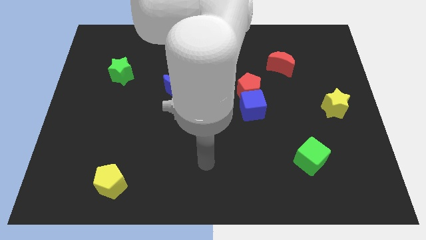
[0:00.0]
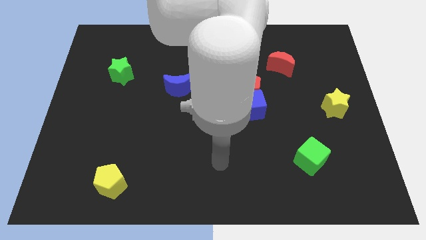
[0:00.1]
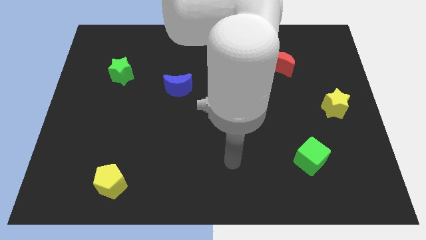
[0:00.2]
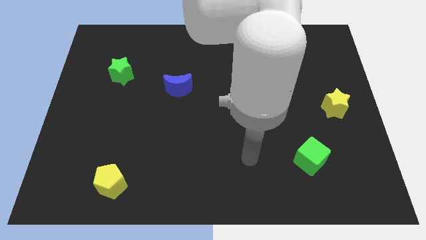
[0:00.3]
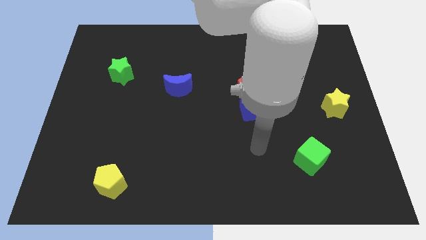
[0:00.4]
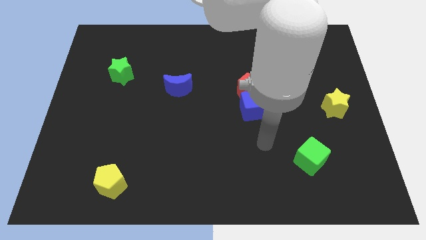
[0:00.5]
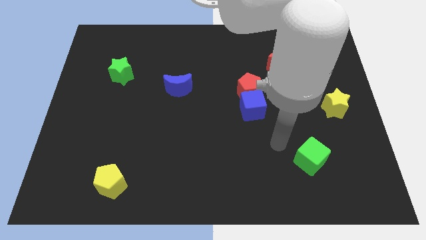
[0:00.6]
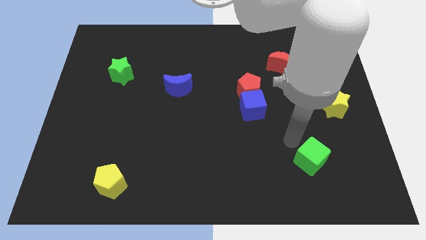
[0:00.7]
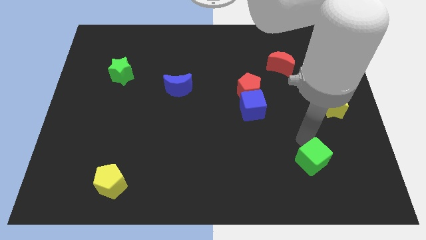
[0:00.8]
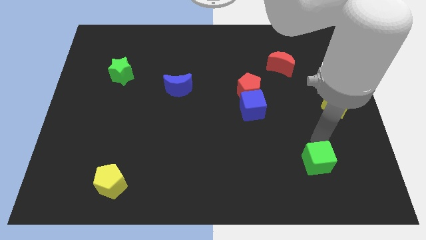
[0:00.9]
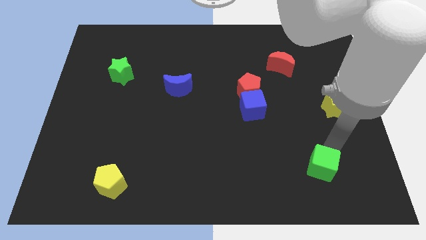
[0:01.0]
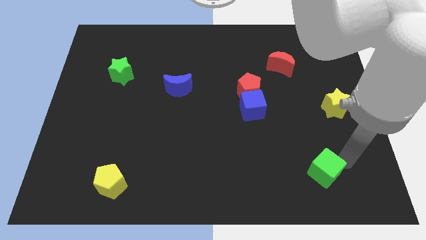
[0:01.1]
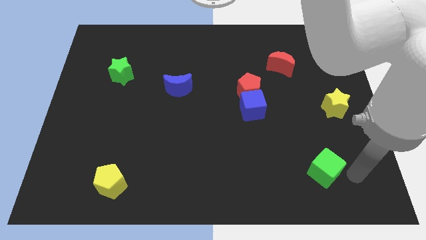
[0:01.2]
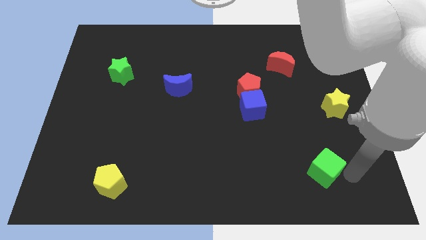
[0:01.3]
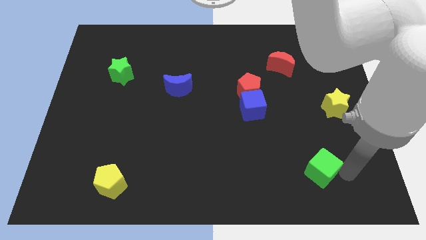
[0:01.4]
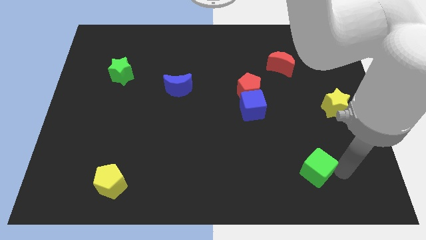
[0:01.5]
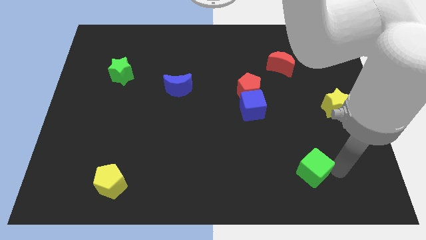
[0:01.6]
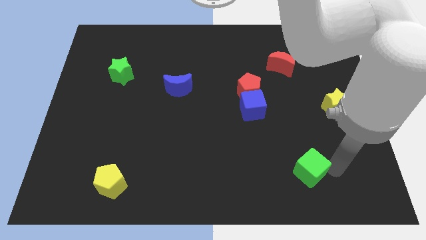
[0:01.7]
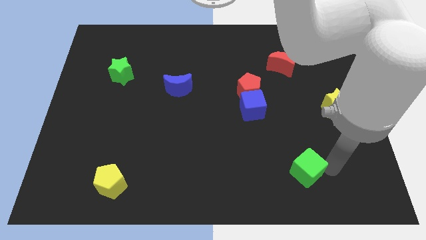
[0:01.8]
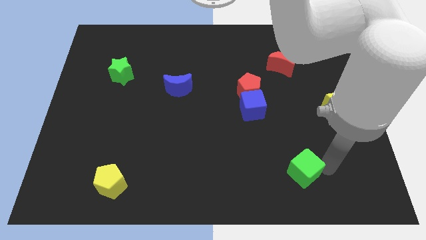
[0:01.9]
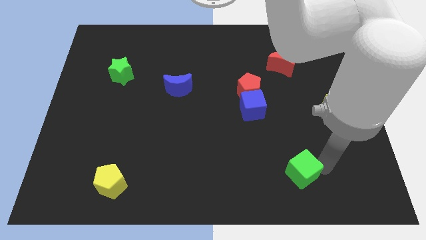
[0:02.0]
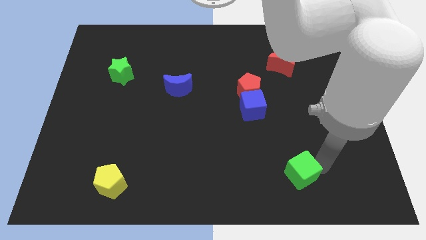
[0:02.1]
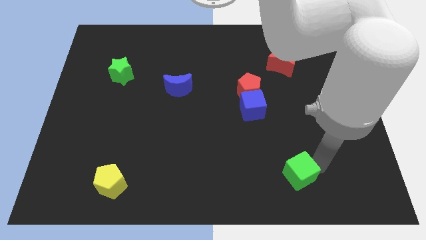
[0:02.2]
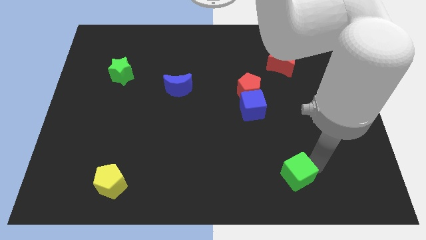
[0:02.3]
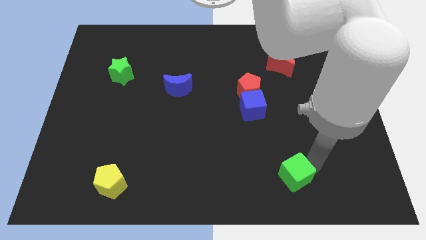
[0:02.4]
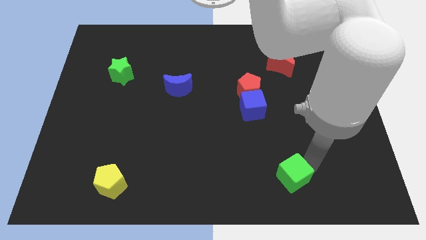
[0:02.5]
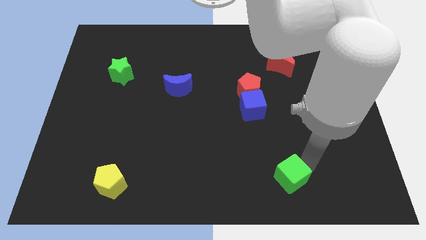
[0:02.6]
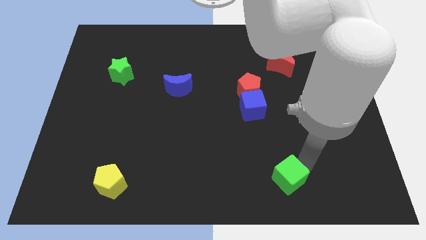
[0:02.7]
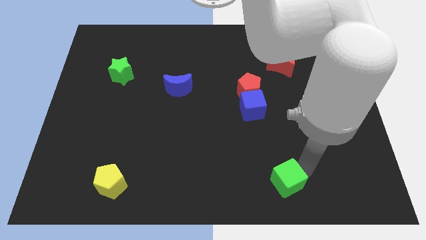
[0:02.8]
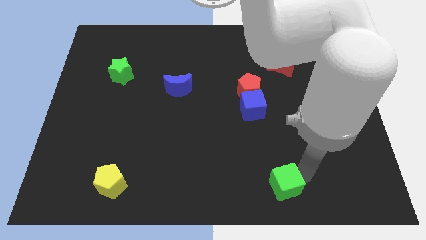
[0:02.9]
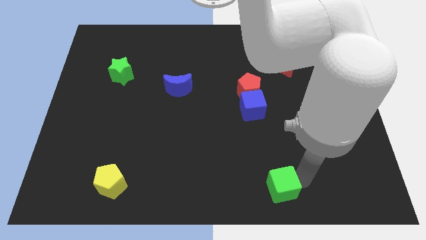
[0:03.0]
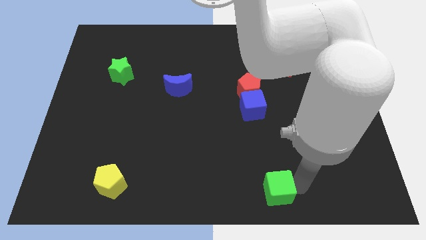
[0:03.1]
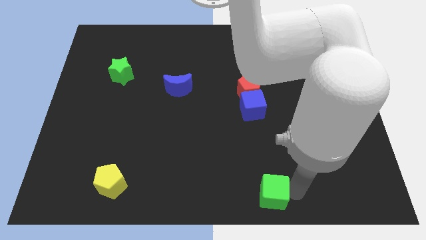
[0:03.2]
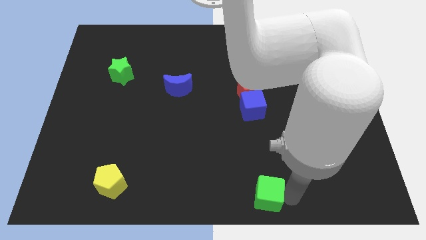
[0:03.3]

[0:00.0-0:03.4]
move the green cube to the left a bit

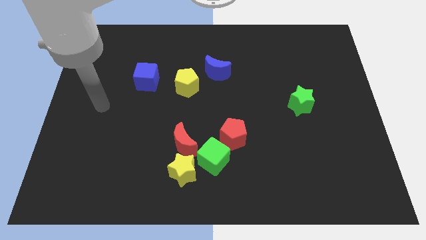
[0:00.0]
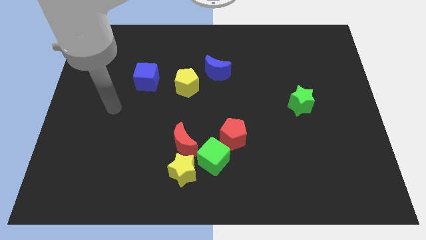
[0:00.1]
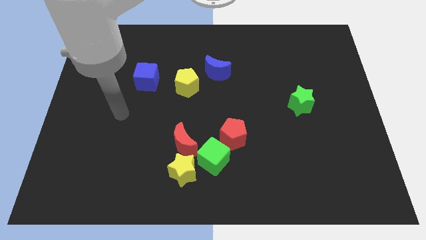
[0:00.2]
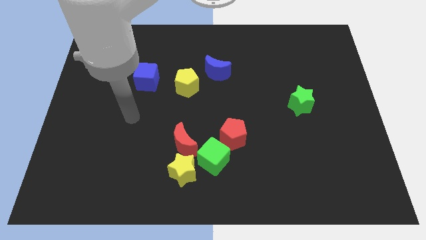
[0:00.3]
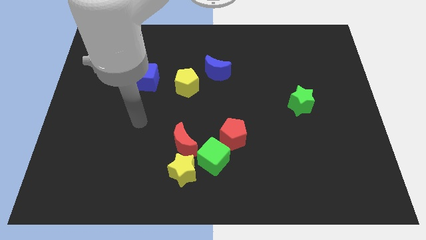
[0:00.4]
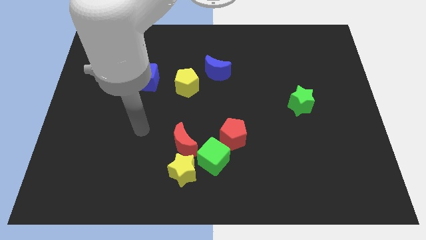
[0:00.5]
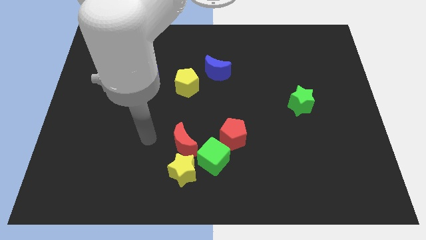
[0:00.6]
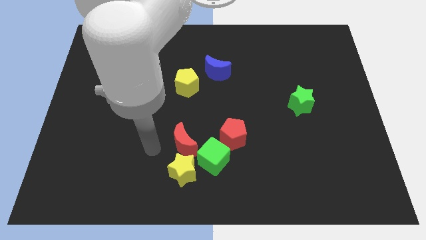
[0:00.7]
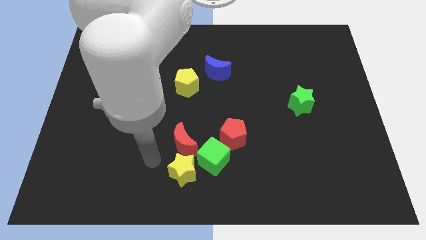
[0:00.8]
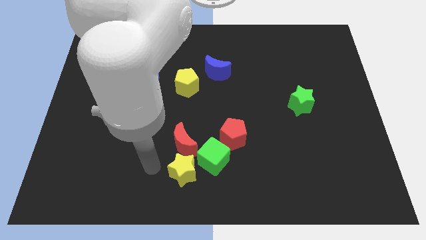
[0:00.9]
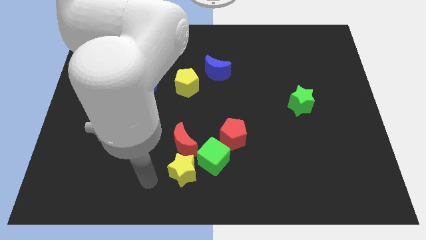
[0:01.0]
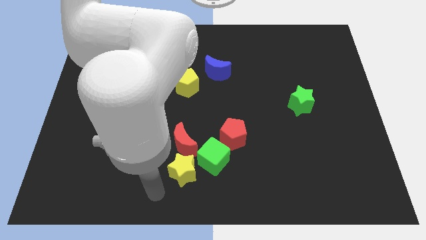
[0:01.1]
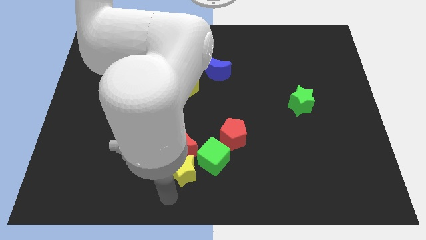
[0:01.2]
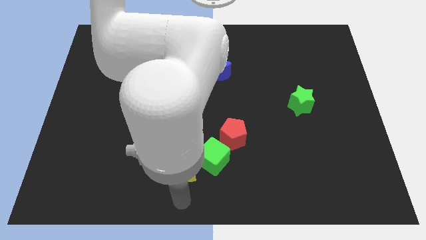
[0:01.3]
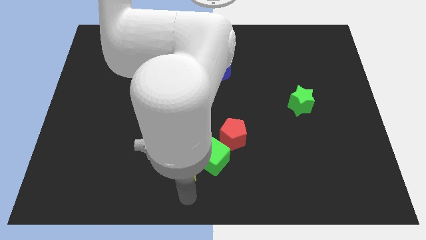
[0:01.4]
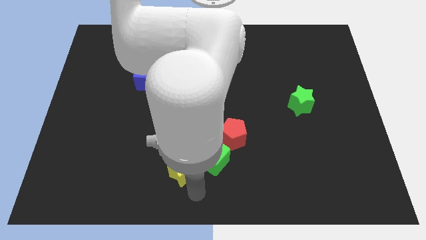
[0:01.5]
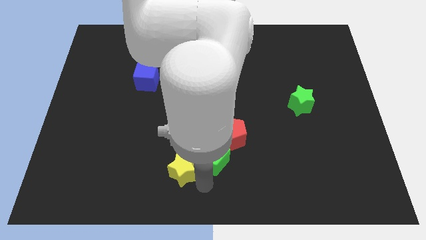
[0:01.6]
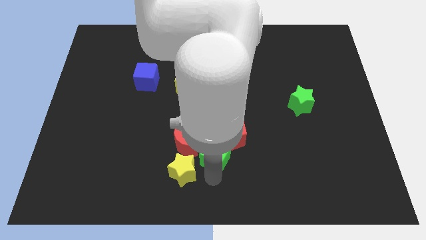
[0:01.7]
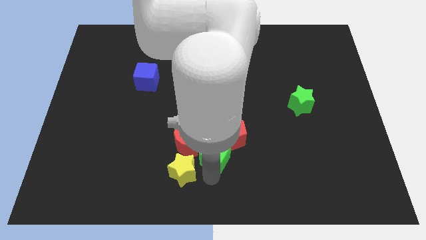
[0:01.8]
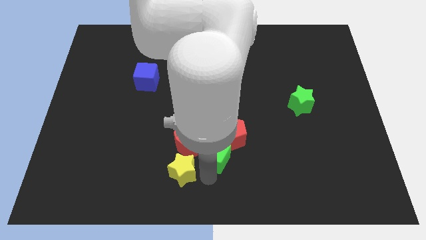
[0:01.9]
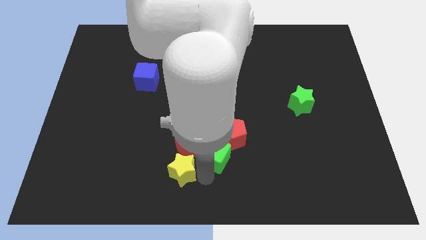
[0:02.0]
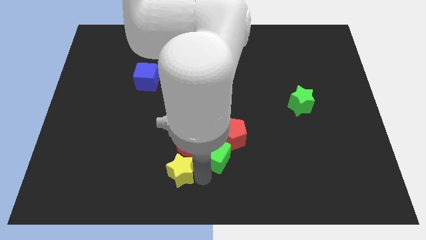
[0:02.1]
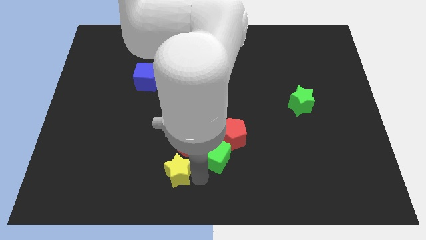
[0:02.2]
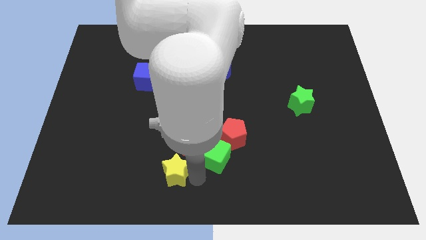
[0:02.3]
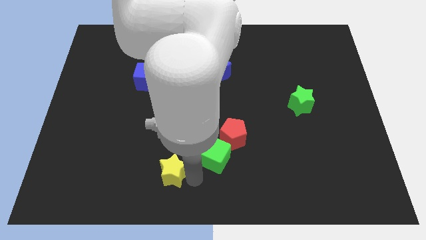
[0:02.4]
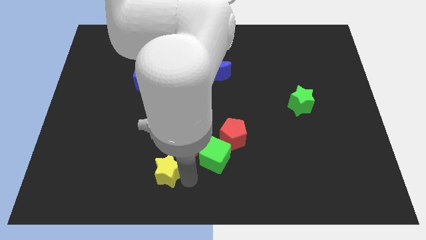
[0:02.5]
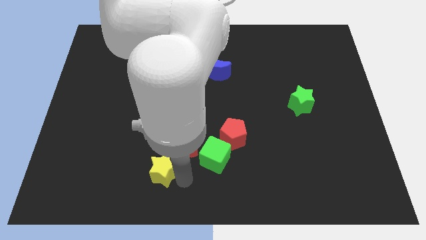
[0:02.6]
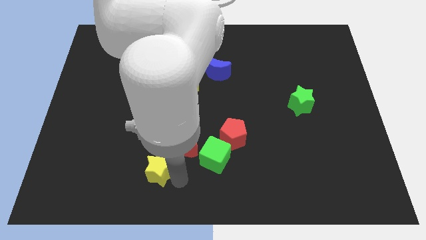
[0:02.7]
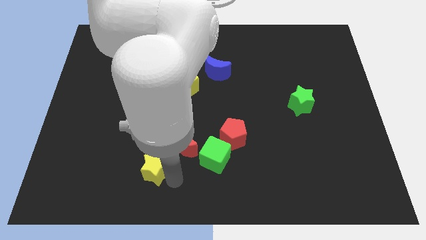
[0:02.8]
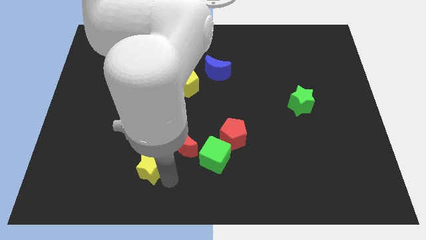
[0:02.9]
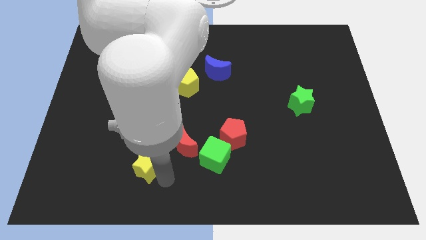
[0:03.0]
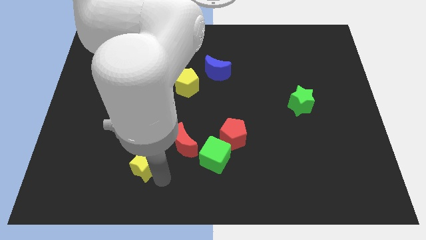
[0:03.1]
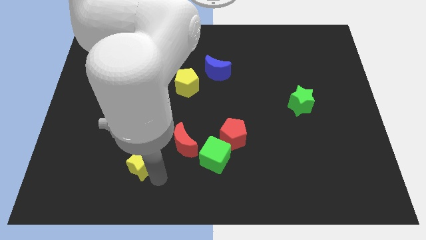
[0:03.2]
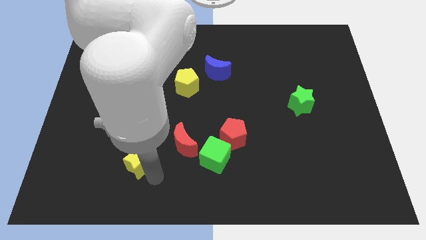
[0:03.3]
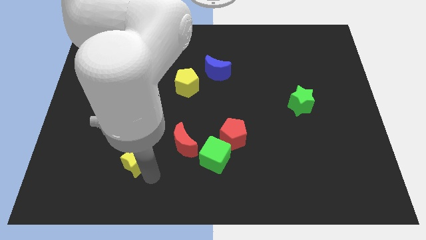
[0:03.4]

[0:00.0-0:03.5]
slide the yellow star somewhat up and to the left

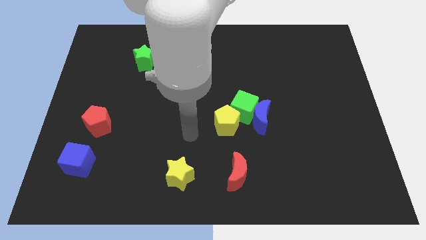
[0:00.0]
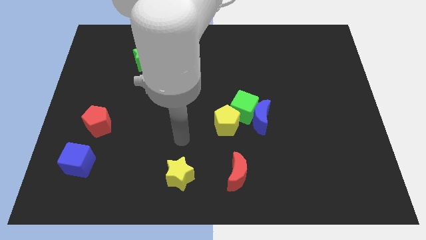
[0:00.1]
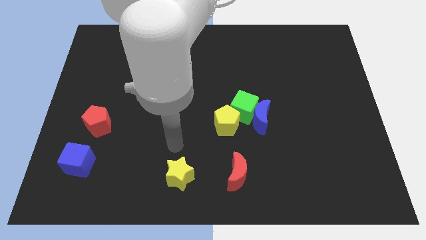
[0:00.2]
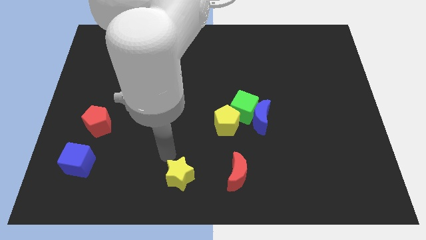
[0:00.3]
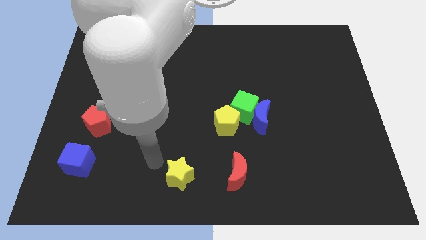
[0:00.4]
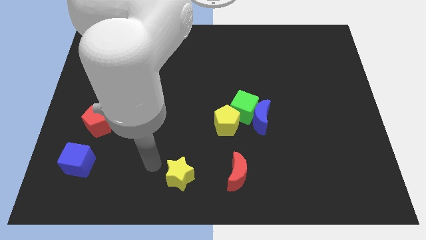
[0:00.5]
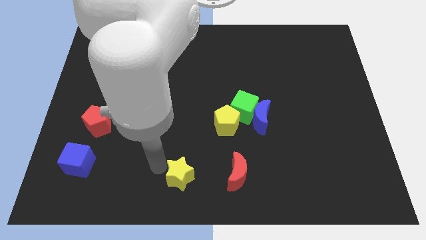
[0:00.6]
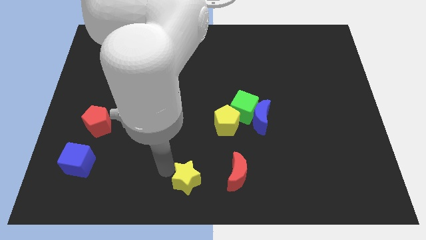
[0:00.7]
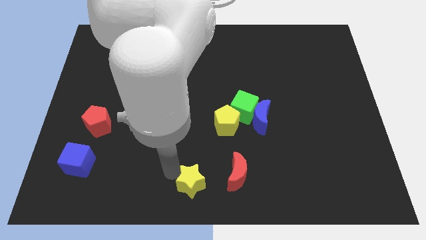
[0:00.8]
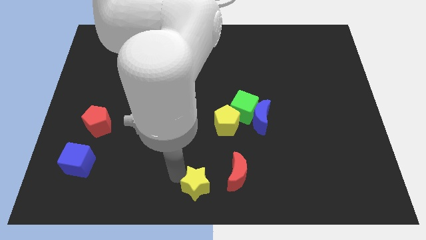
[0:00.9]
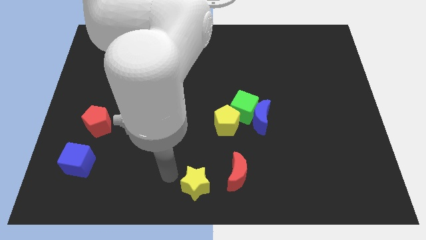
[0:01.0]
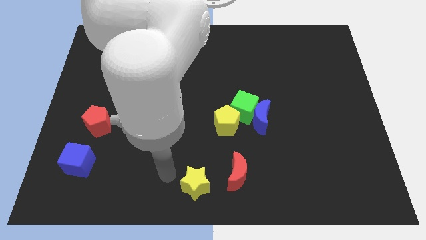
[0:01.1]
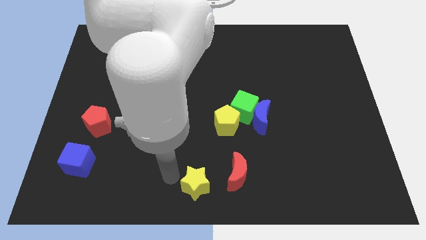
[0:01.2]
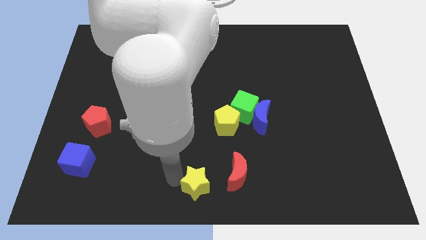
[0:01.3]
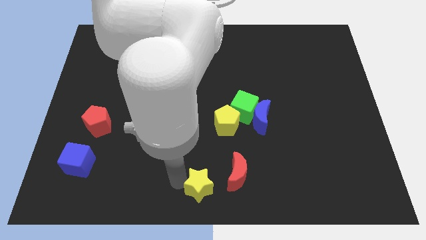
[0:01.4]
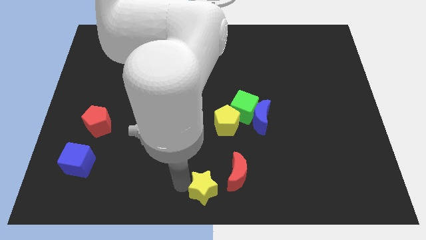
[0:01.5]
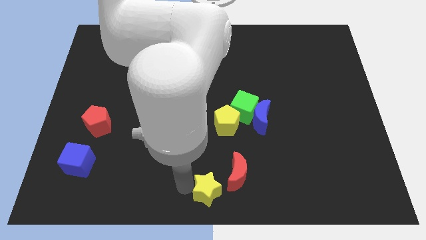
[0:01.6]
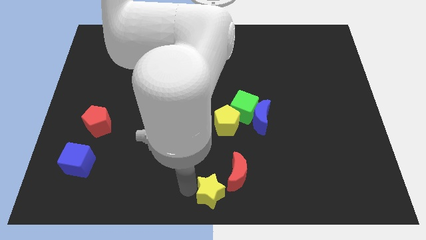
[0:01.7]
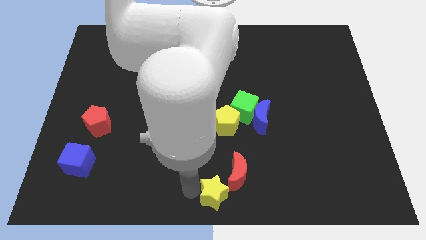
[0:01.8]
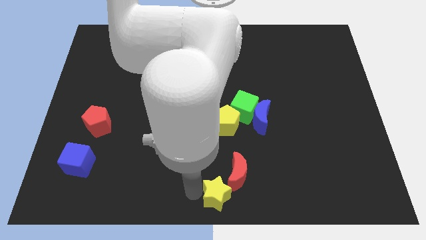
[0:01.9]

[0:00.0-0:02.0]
slightly move the yellow star to the right
